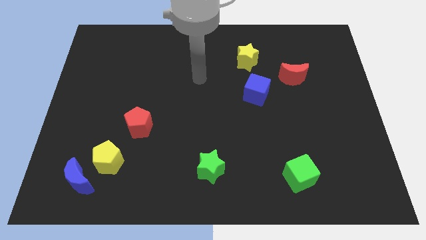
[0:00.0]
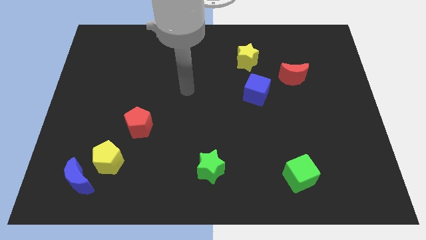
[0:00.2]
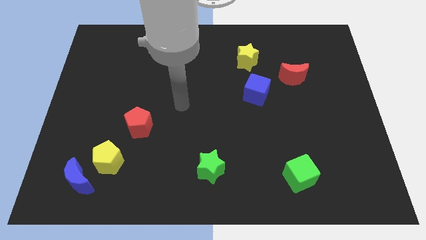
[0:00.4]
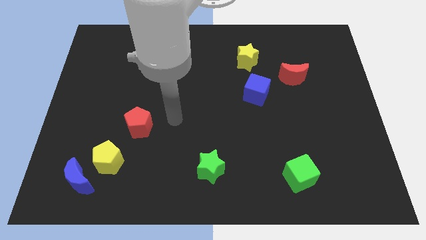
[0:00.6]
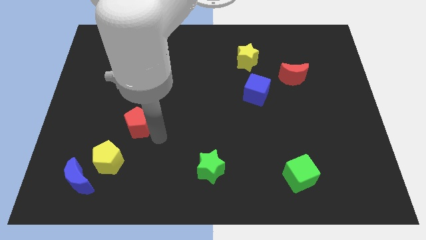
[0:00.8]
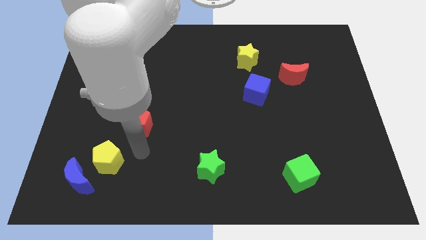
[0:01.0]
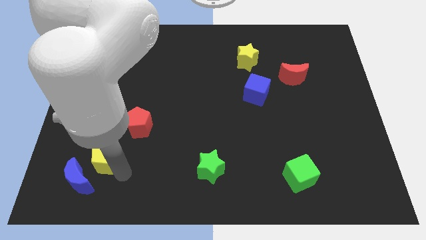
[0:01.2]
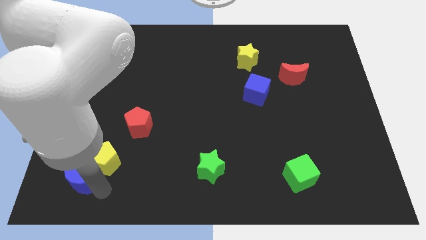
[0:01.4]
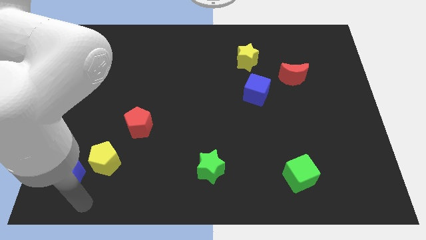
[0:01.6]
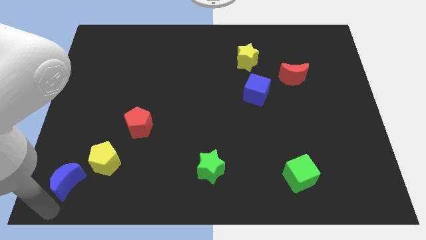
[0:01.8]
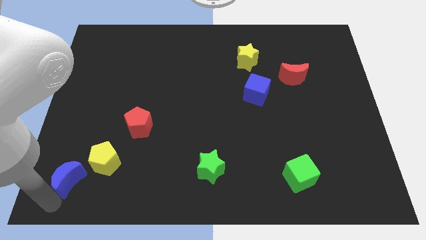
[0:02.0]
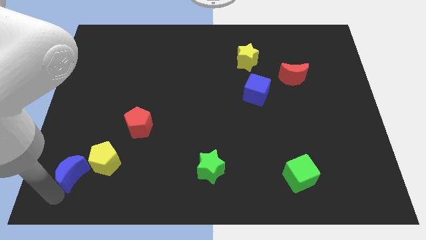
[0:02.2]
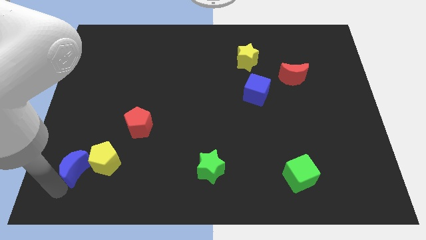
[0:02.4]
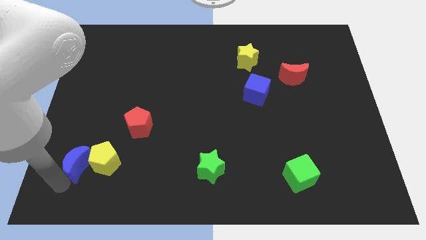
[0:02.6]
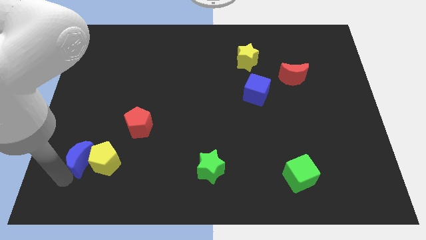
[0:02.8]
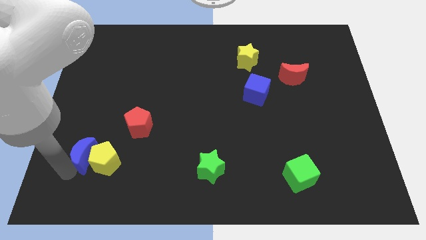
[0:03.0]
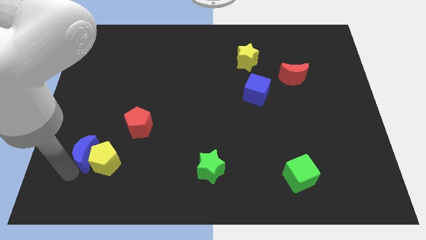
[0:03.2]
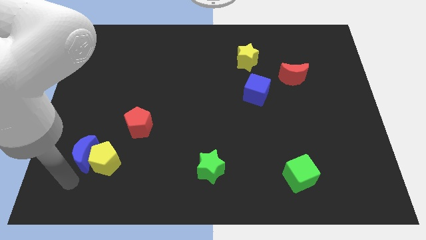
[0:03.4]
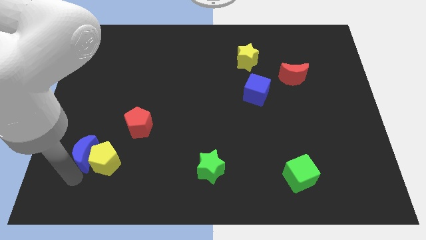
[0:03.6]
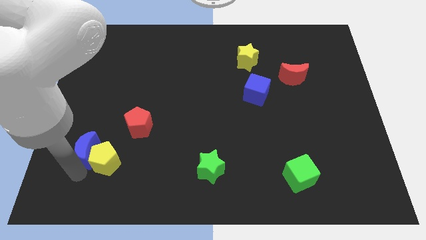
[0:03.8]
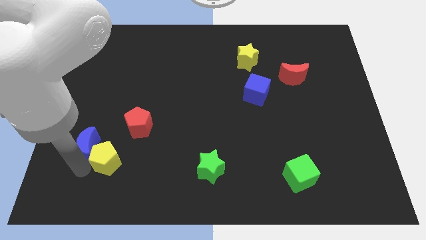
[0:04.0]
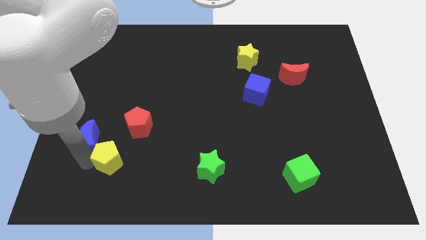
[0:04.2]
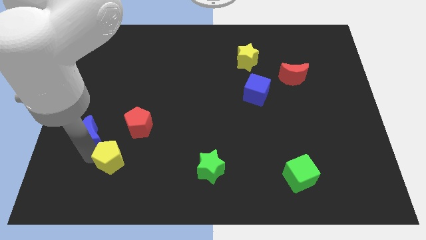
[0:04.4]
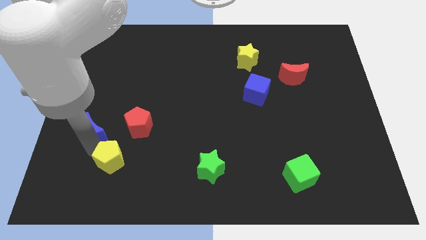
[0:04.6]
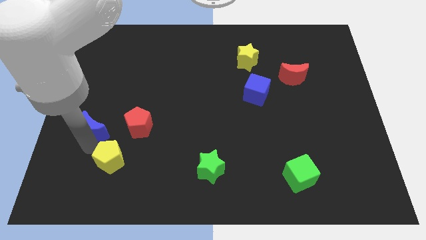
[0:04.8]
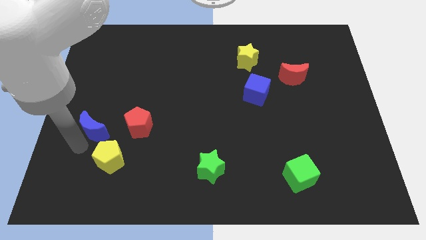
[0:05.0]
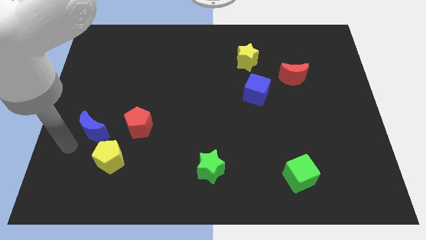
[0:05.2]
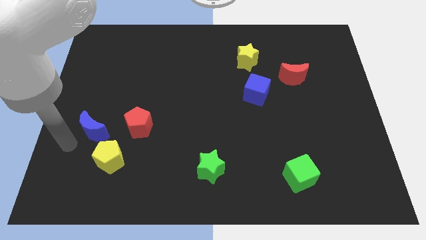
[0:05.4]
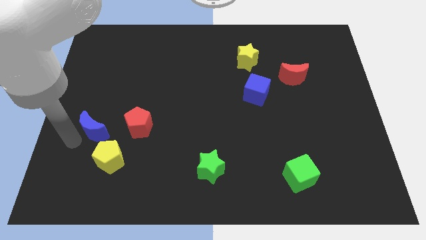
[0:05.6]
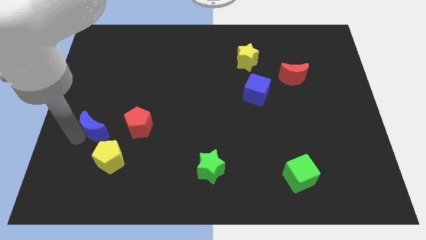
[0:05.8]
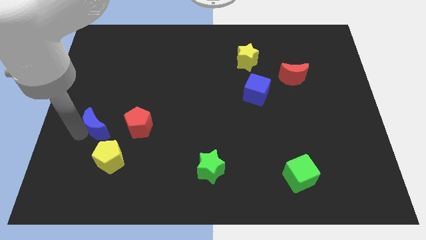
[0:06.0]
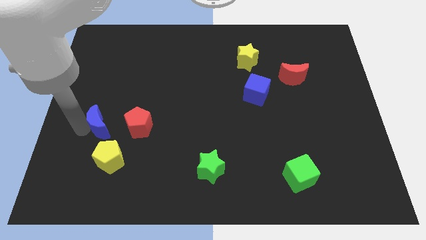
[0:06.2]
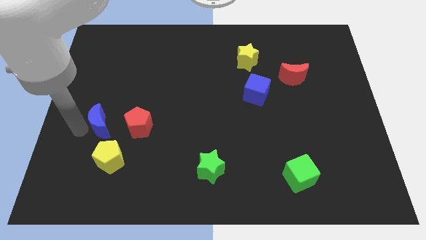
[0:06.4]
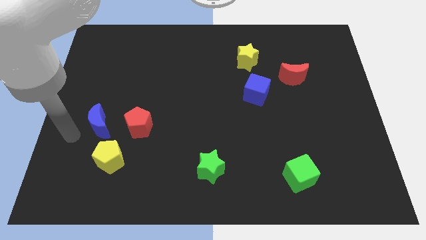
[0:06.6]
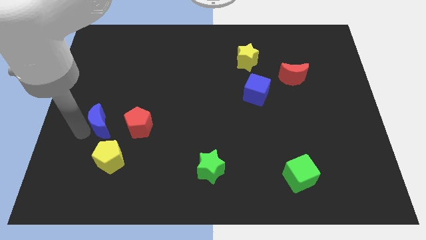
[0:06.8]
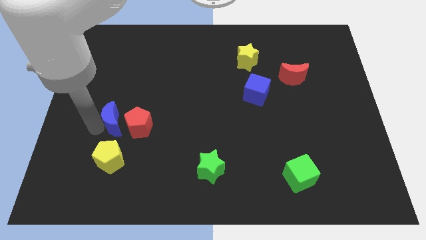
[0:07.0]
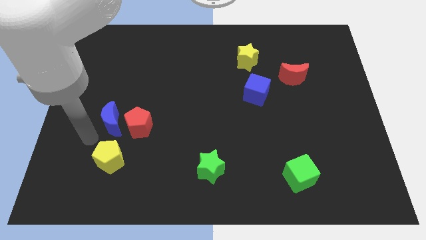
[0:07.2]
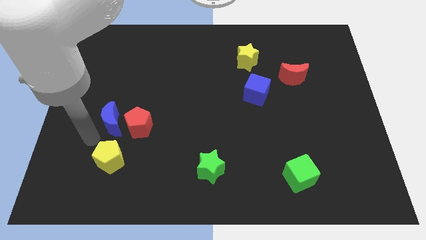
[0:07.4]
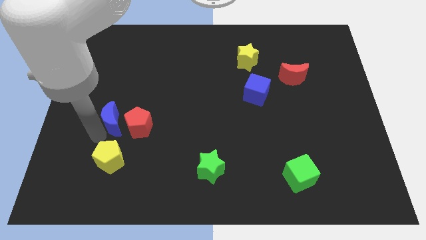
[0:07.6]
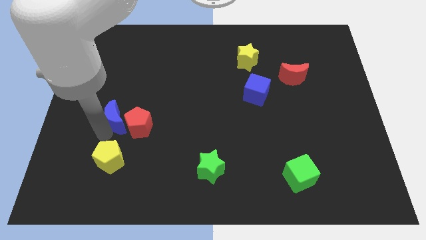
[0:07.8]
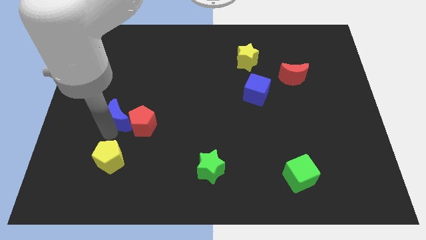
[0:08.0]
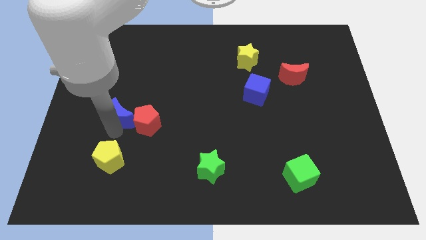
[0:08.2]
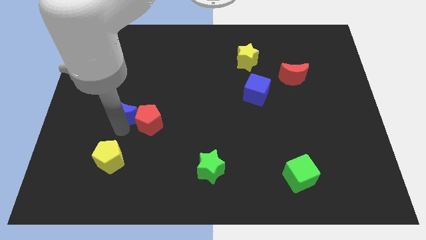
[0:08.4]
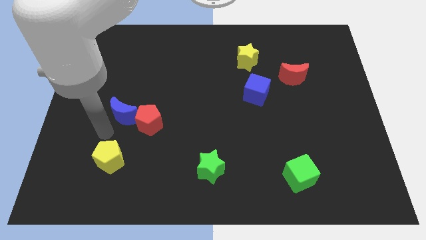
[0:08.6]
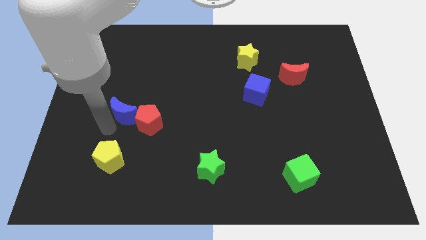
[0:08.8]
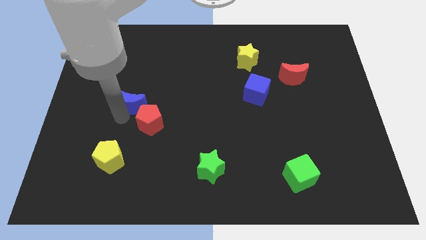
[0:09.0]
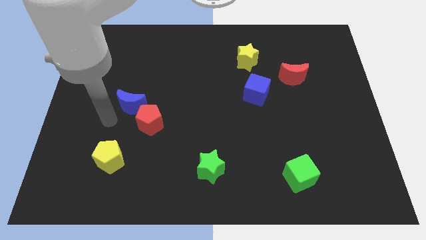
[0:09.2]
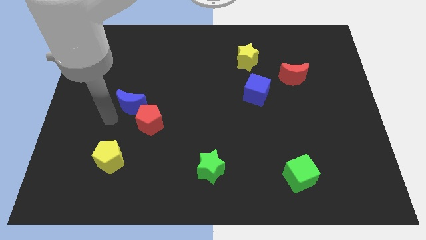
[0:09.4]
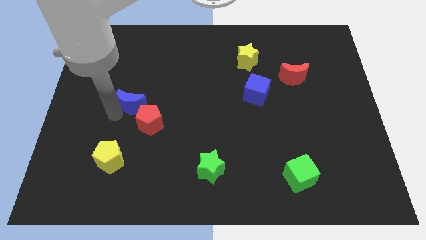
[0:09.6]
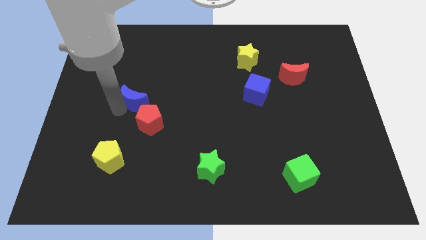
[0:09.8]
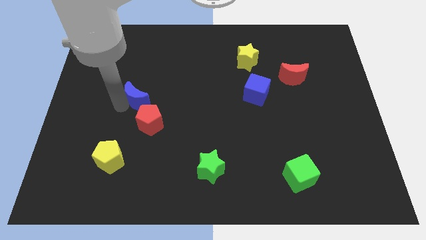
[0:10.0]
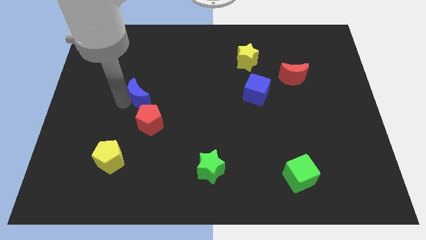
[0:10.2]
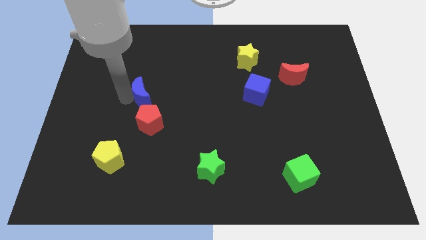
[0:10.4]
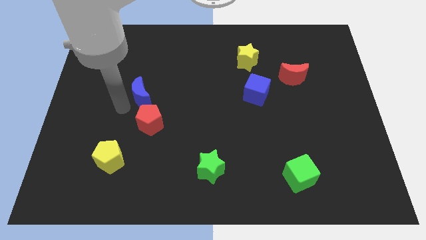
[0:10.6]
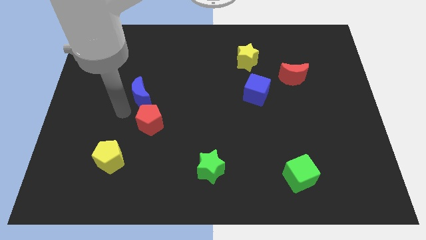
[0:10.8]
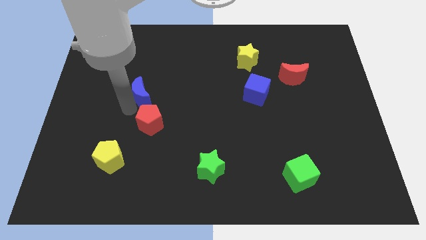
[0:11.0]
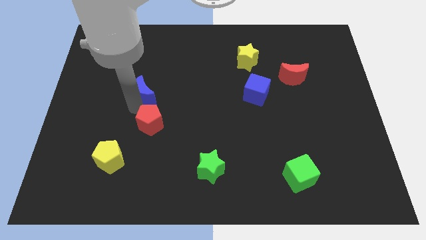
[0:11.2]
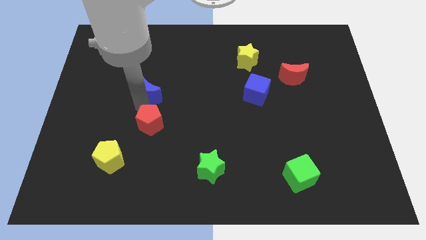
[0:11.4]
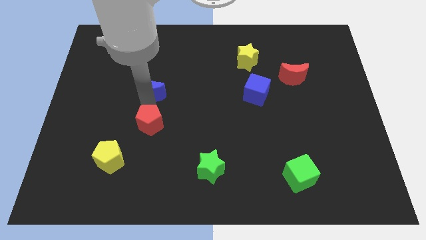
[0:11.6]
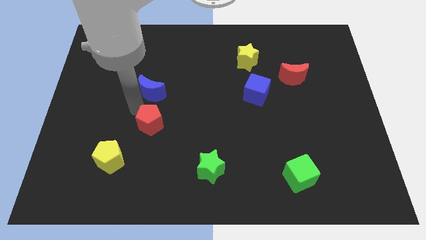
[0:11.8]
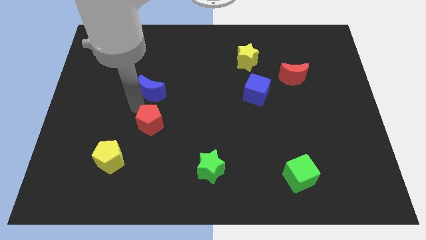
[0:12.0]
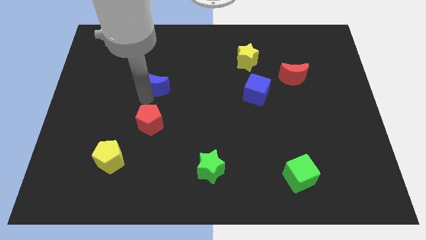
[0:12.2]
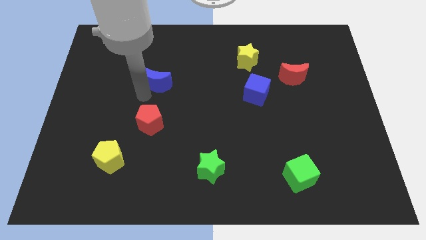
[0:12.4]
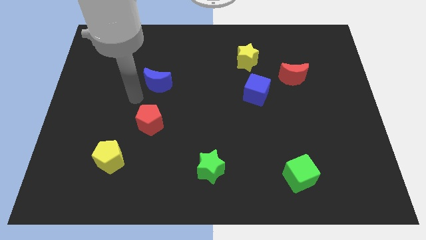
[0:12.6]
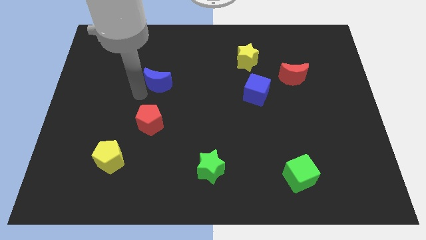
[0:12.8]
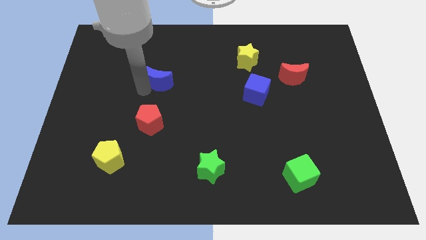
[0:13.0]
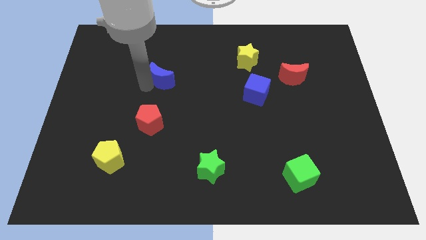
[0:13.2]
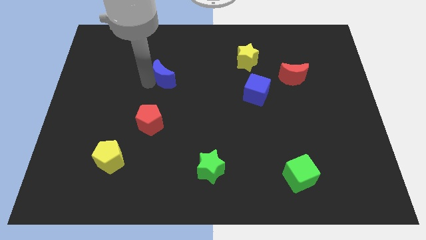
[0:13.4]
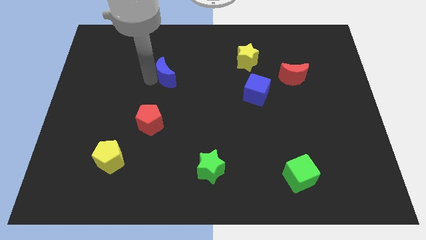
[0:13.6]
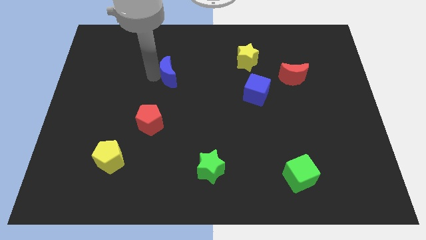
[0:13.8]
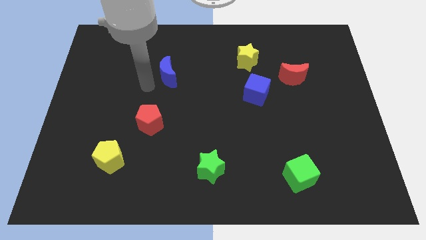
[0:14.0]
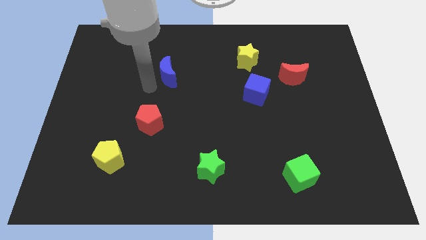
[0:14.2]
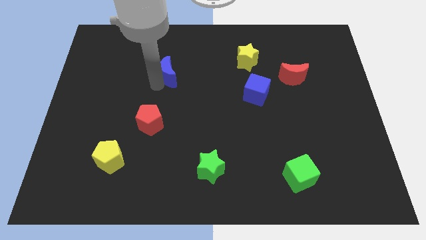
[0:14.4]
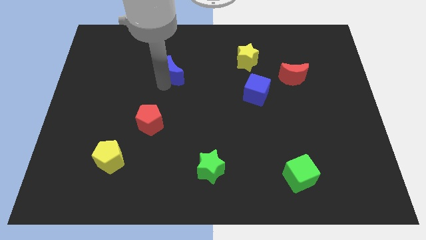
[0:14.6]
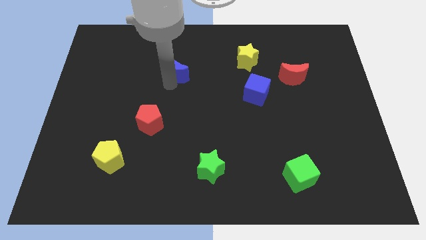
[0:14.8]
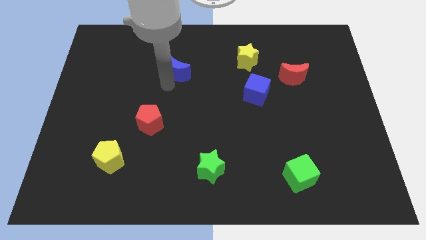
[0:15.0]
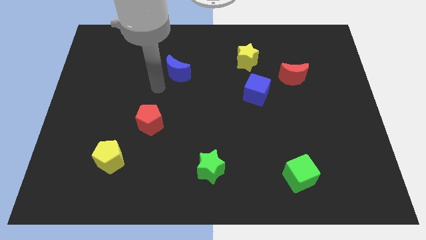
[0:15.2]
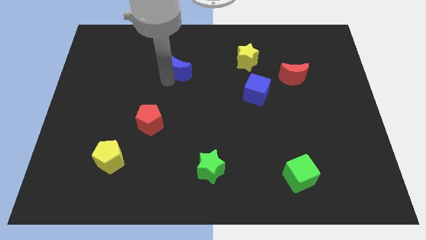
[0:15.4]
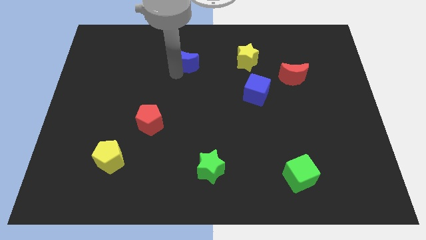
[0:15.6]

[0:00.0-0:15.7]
push the blue moon to the left side of the yellow star
